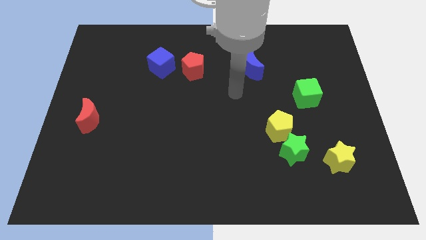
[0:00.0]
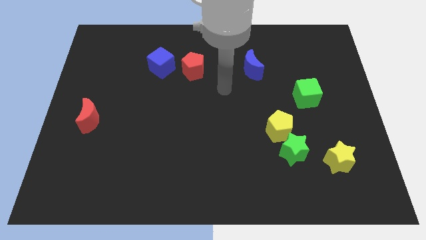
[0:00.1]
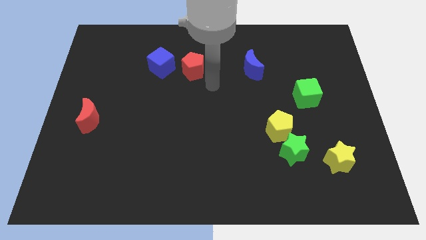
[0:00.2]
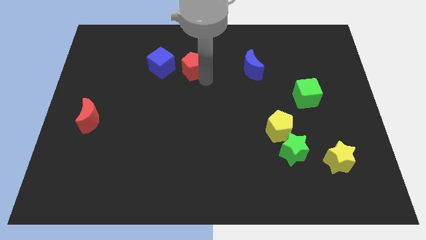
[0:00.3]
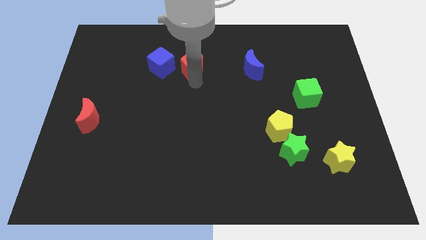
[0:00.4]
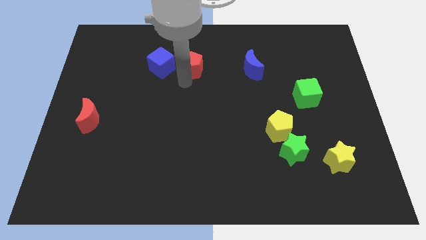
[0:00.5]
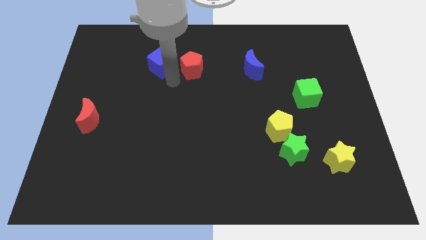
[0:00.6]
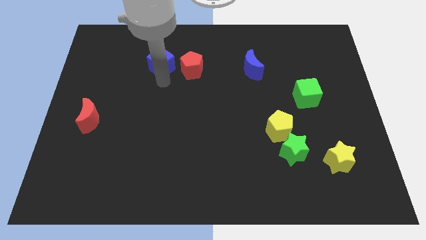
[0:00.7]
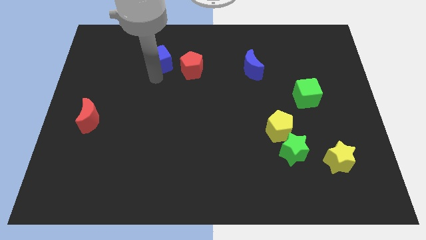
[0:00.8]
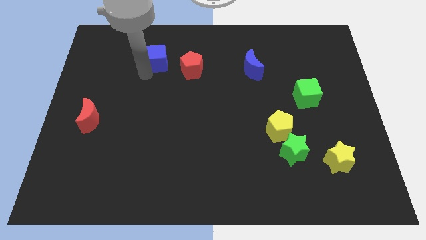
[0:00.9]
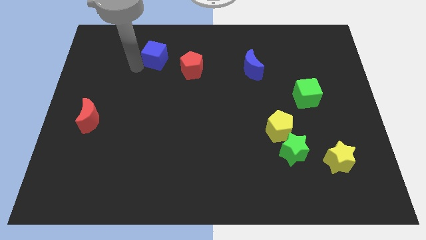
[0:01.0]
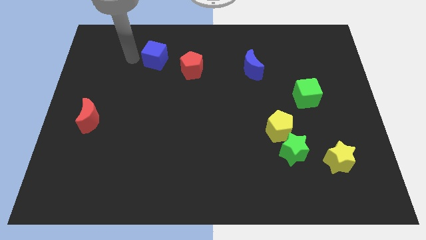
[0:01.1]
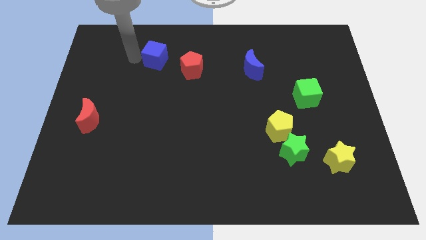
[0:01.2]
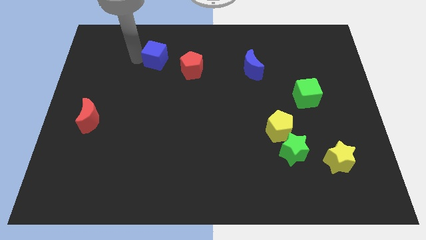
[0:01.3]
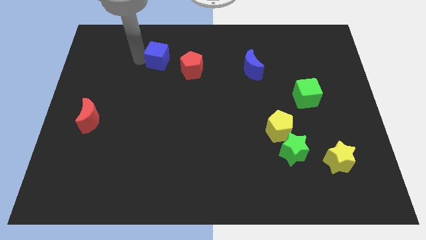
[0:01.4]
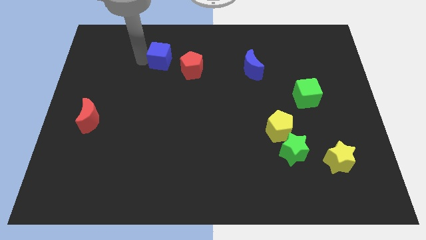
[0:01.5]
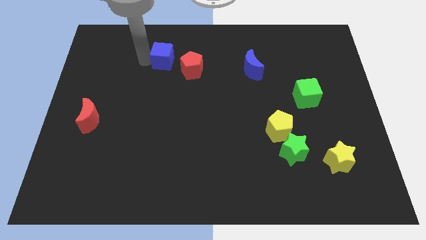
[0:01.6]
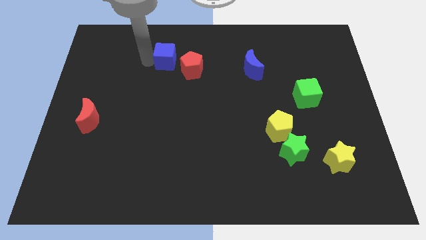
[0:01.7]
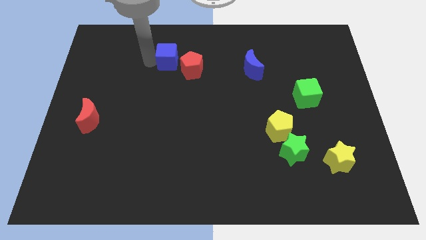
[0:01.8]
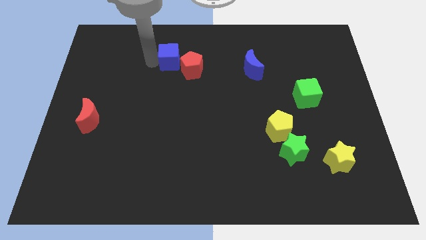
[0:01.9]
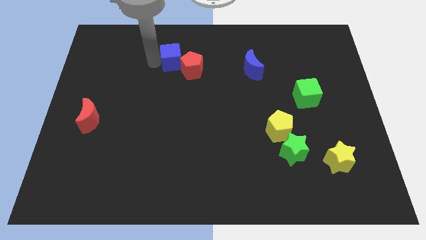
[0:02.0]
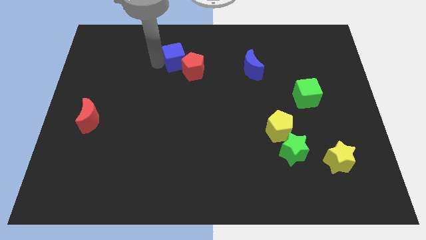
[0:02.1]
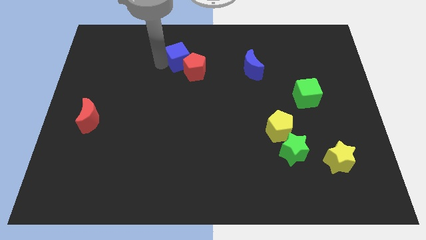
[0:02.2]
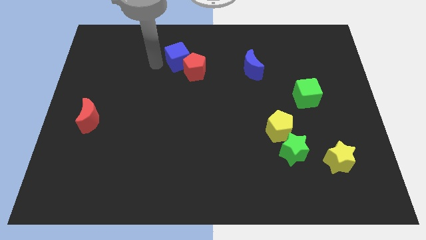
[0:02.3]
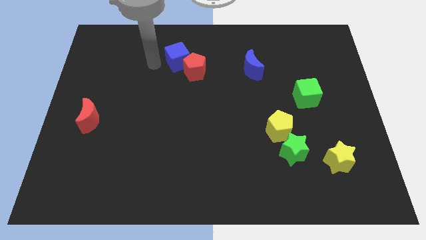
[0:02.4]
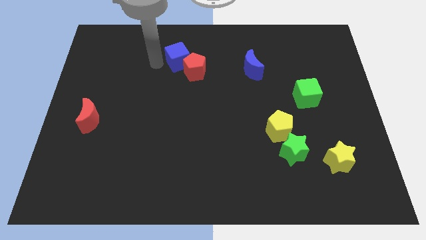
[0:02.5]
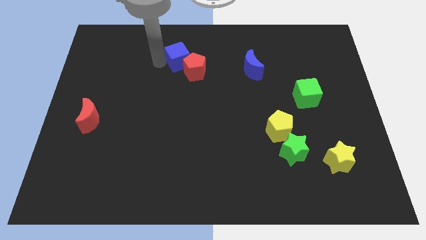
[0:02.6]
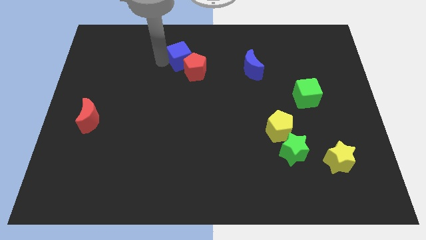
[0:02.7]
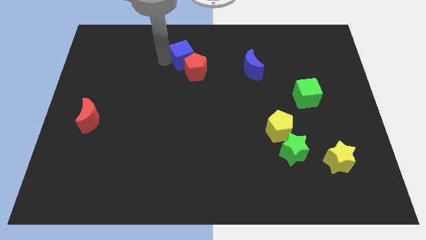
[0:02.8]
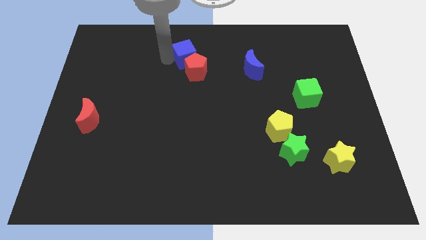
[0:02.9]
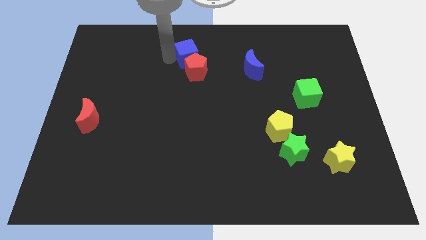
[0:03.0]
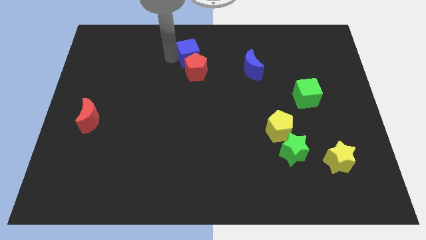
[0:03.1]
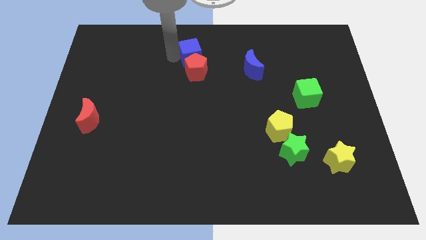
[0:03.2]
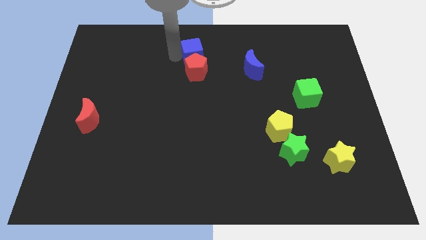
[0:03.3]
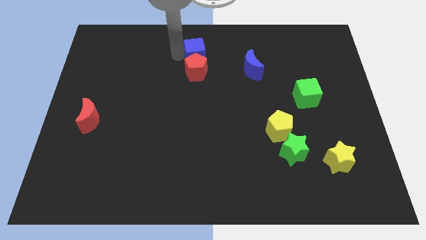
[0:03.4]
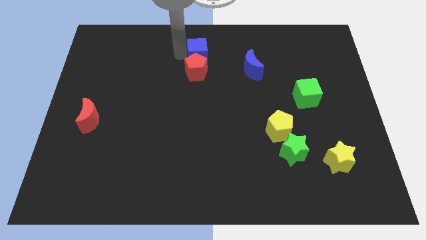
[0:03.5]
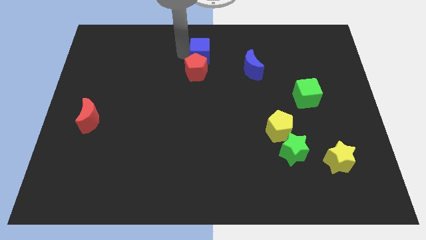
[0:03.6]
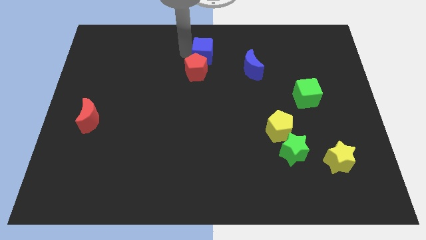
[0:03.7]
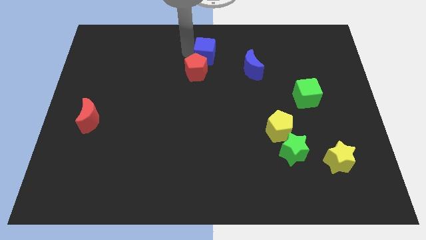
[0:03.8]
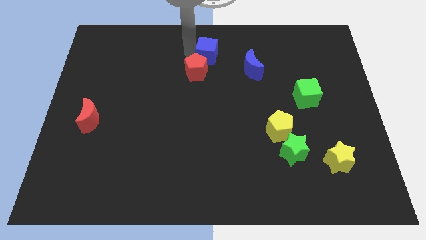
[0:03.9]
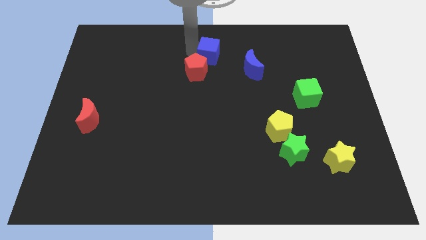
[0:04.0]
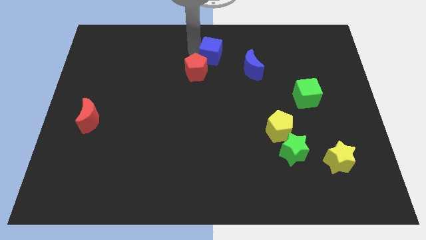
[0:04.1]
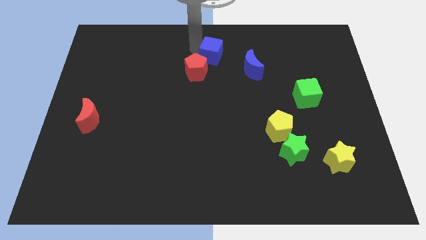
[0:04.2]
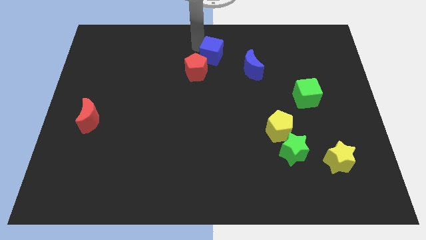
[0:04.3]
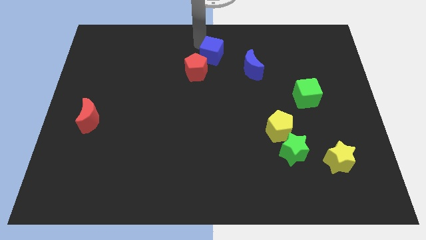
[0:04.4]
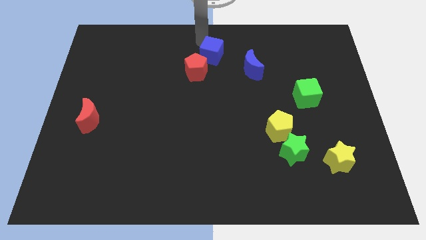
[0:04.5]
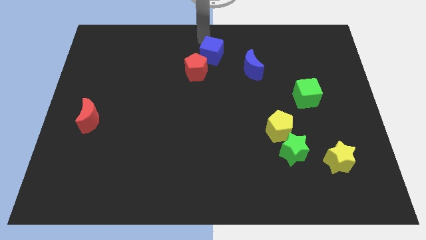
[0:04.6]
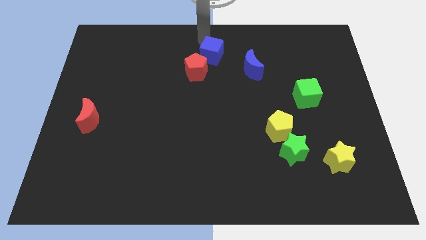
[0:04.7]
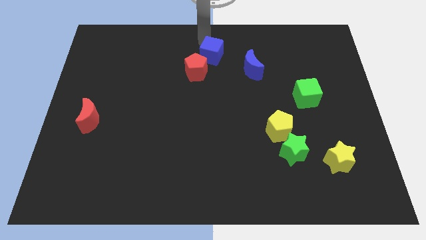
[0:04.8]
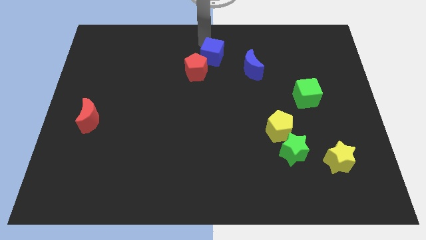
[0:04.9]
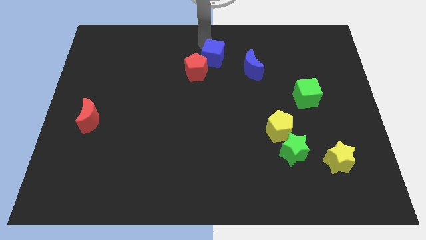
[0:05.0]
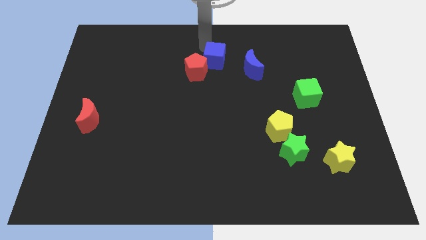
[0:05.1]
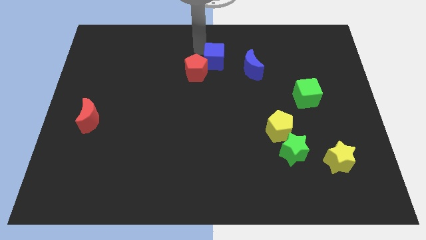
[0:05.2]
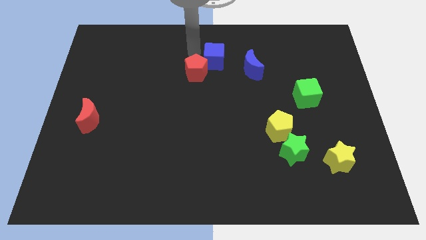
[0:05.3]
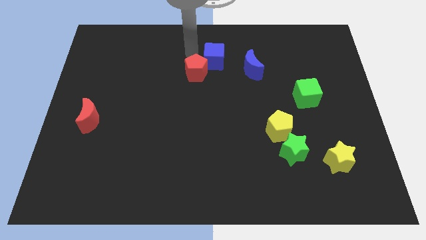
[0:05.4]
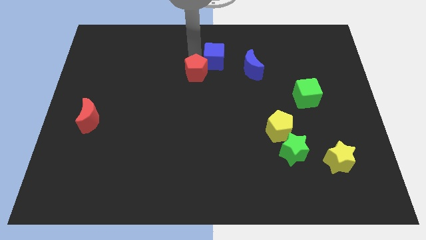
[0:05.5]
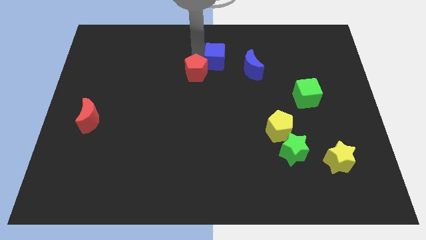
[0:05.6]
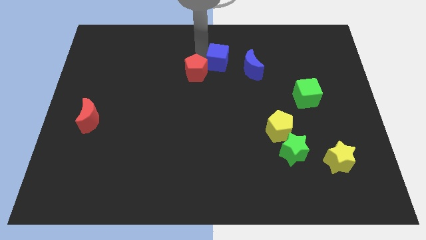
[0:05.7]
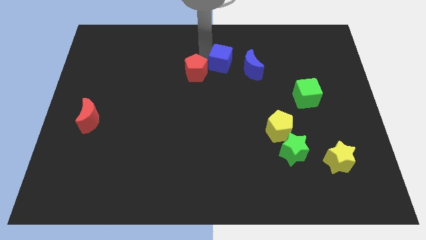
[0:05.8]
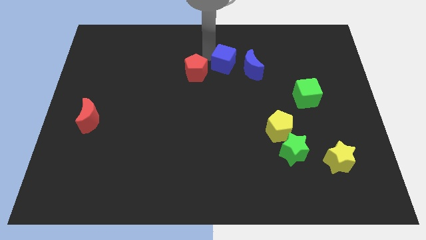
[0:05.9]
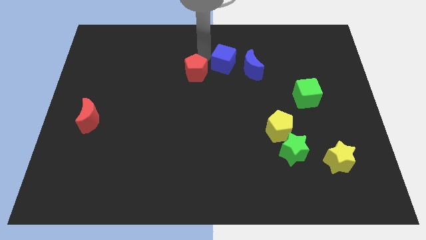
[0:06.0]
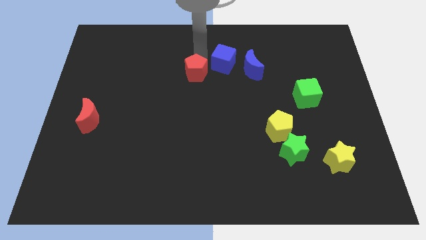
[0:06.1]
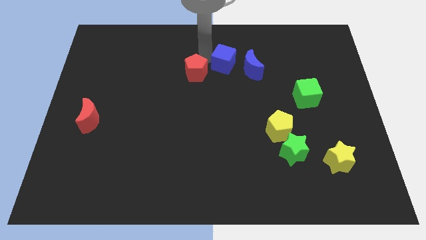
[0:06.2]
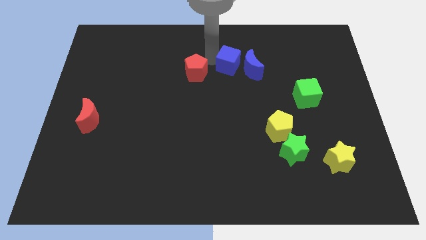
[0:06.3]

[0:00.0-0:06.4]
put the blue cube close to the blue moon

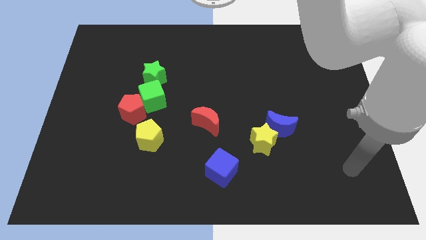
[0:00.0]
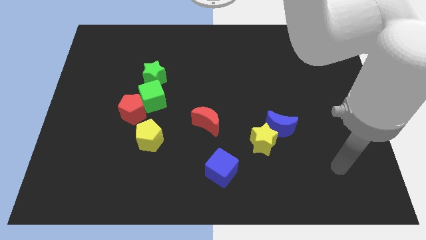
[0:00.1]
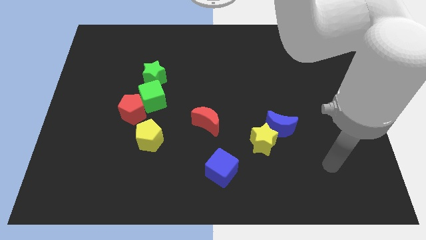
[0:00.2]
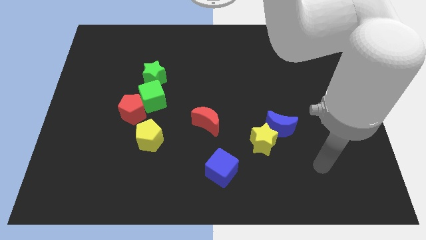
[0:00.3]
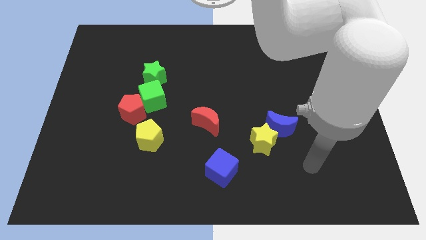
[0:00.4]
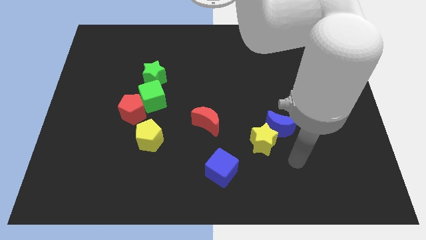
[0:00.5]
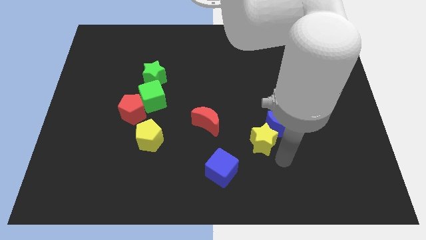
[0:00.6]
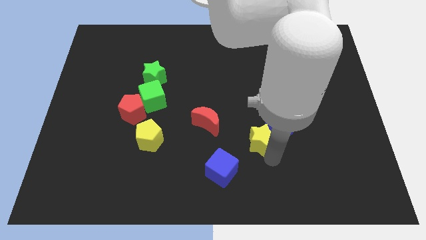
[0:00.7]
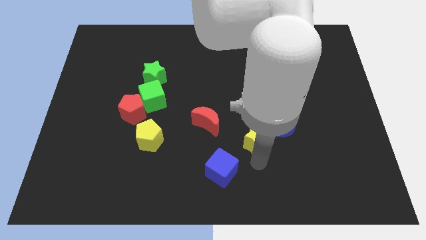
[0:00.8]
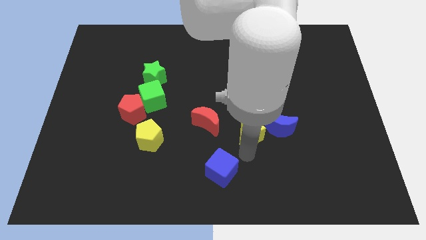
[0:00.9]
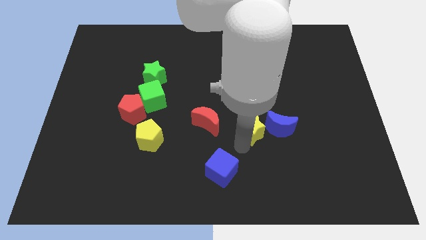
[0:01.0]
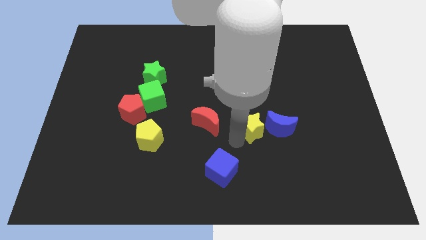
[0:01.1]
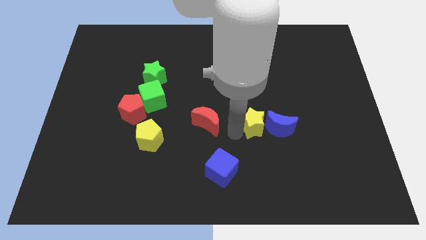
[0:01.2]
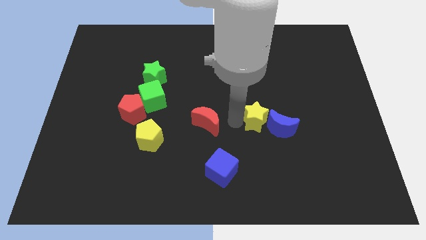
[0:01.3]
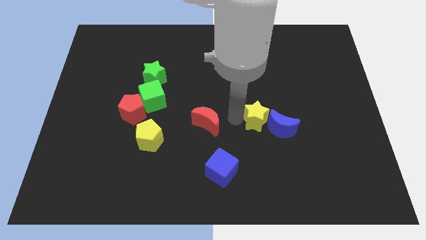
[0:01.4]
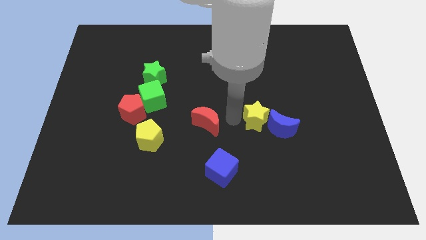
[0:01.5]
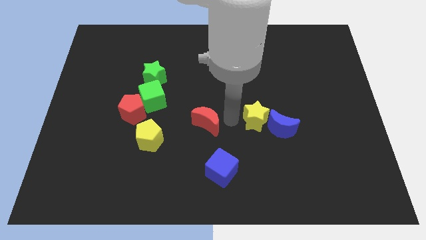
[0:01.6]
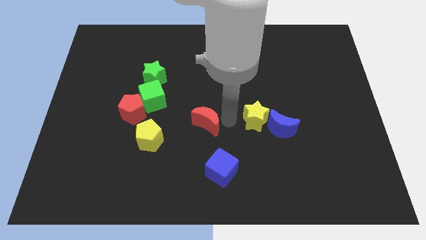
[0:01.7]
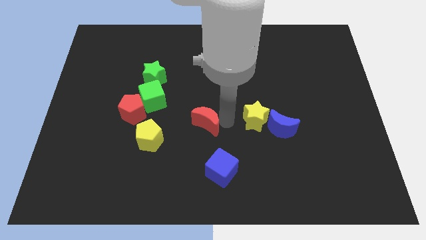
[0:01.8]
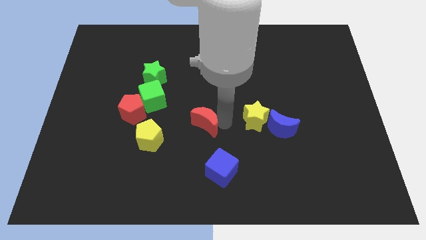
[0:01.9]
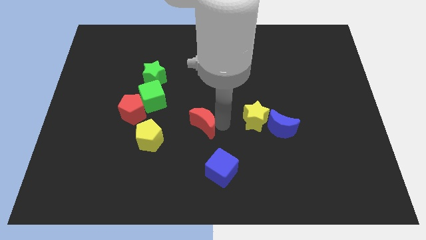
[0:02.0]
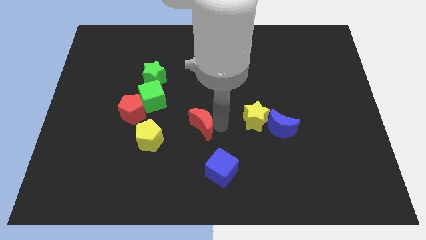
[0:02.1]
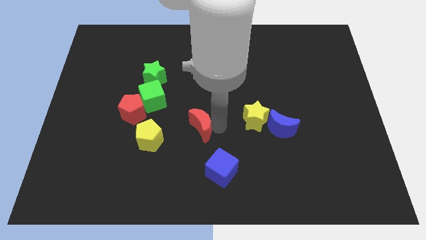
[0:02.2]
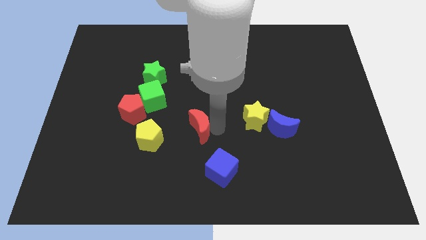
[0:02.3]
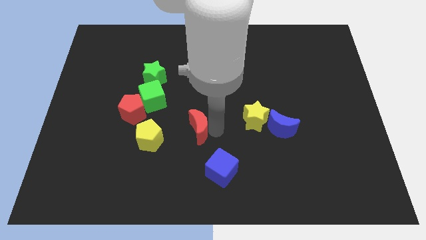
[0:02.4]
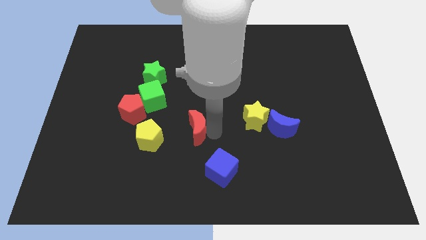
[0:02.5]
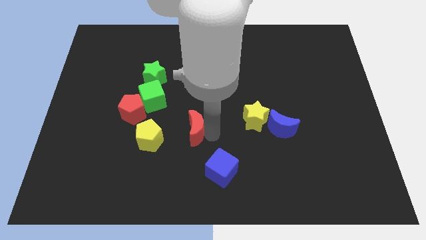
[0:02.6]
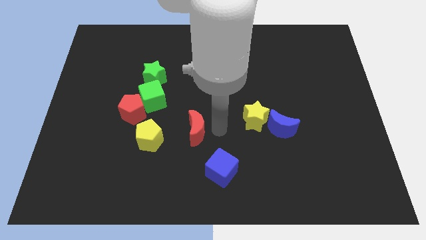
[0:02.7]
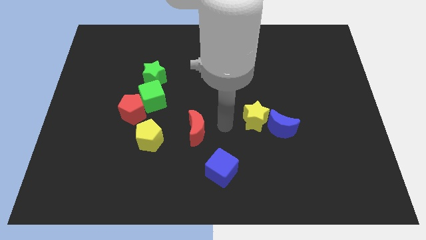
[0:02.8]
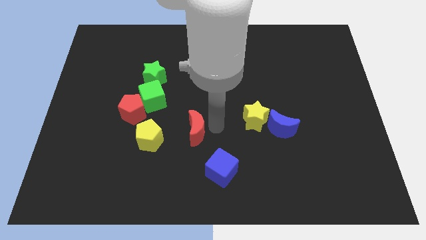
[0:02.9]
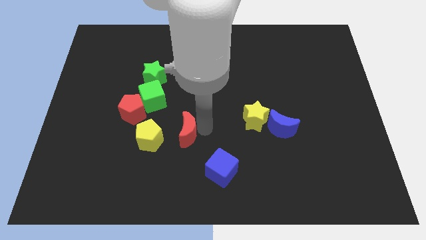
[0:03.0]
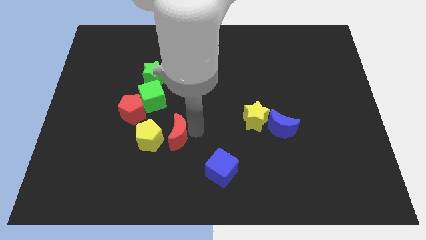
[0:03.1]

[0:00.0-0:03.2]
put the red moon close to the yellow pentagon
